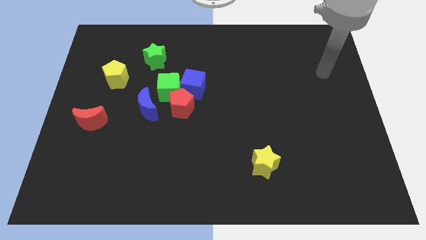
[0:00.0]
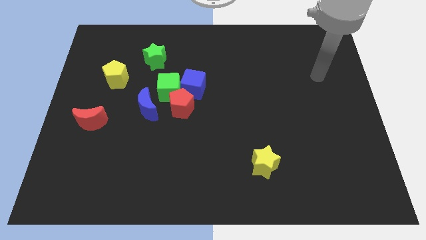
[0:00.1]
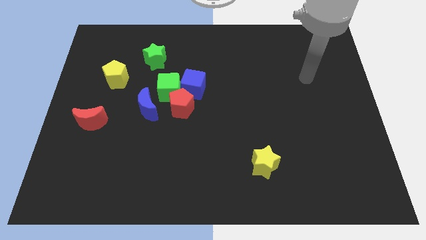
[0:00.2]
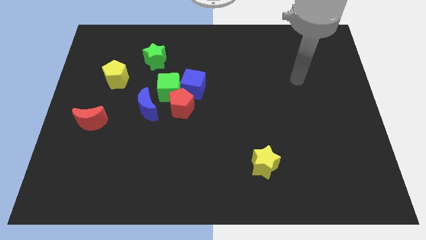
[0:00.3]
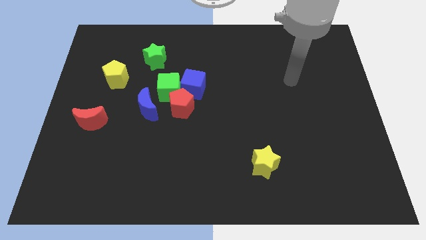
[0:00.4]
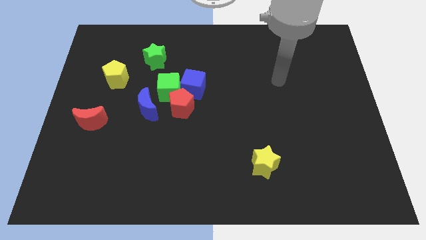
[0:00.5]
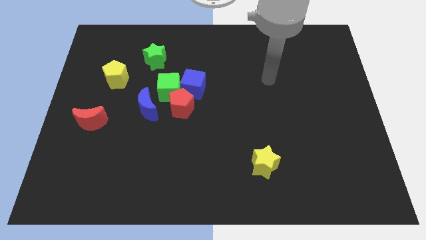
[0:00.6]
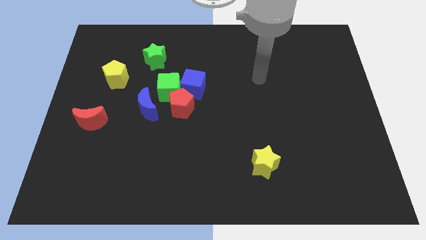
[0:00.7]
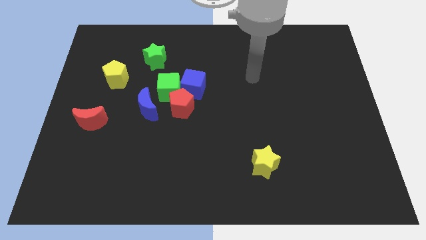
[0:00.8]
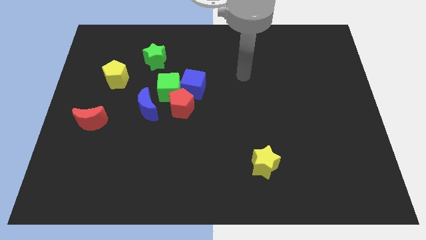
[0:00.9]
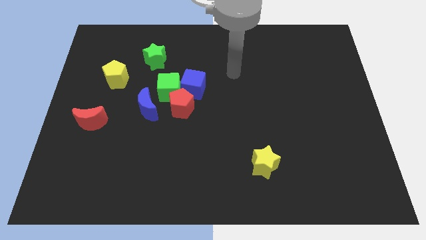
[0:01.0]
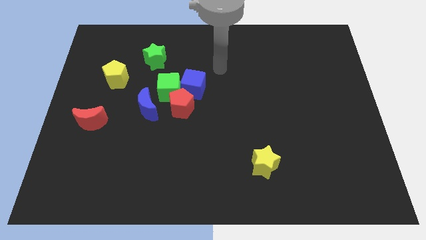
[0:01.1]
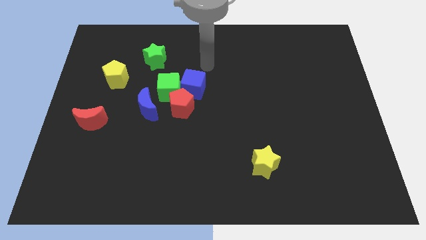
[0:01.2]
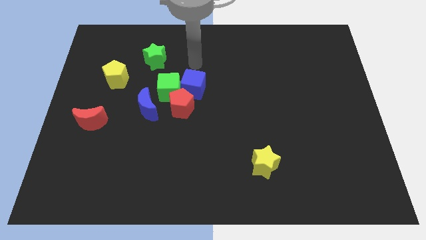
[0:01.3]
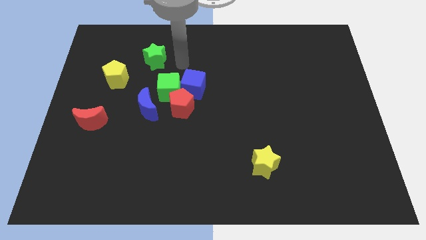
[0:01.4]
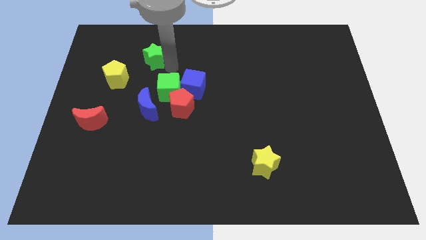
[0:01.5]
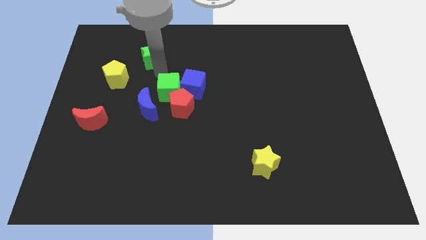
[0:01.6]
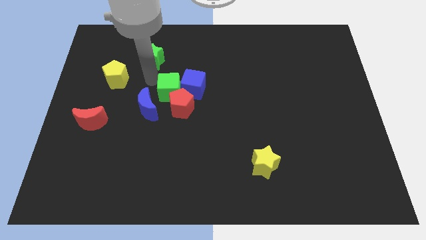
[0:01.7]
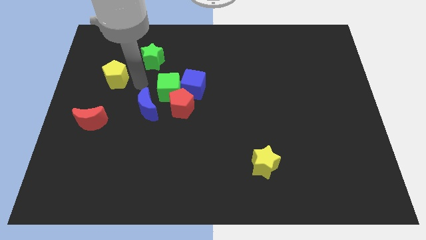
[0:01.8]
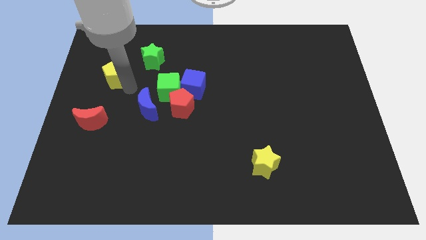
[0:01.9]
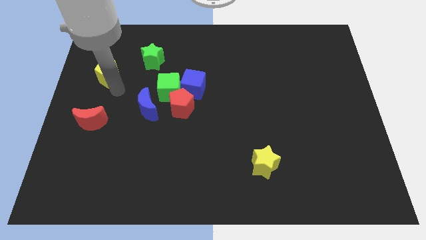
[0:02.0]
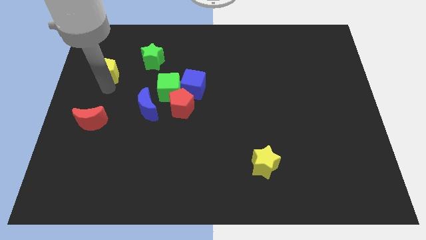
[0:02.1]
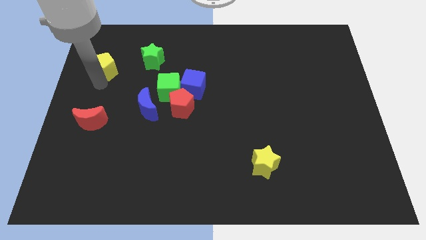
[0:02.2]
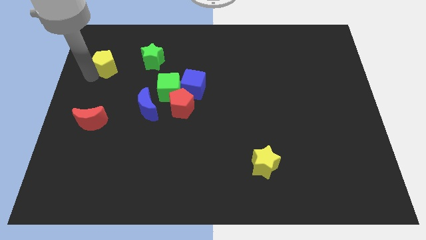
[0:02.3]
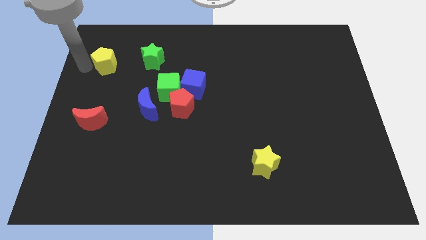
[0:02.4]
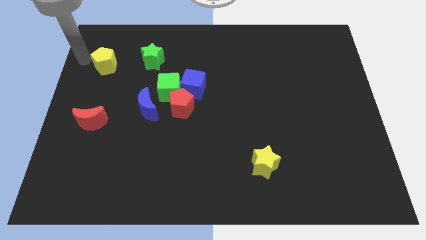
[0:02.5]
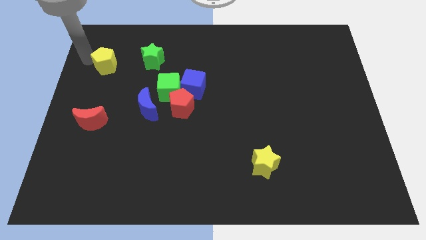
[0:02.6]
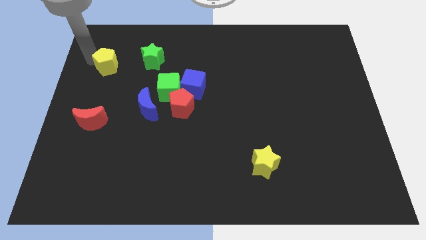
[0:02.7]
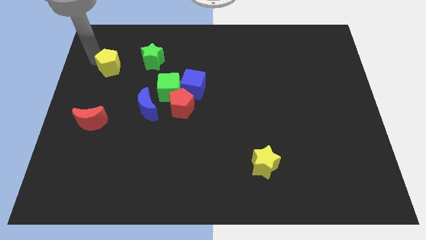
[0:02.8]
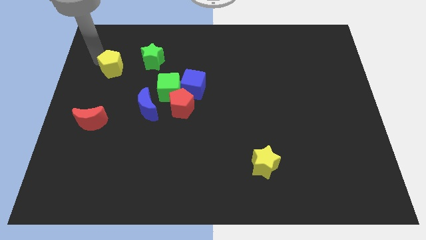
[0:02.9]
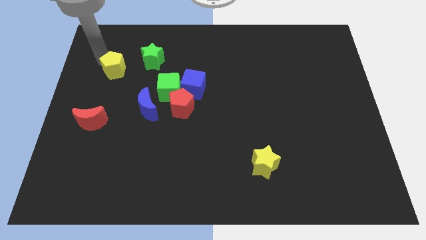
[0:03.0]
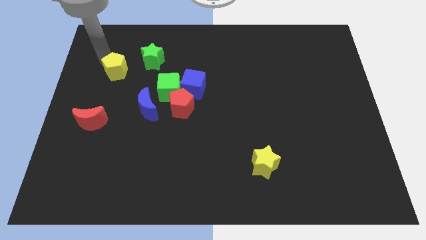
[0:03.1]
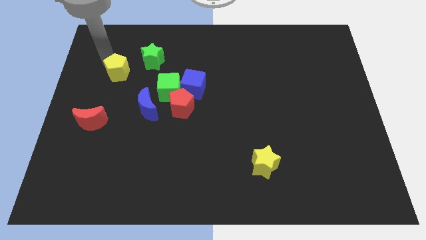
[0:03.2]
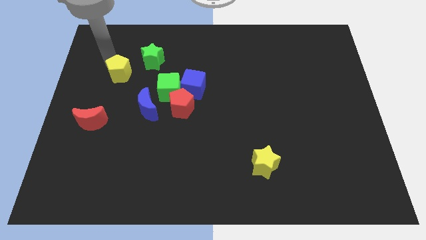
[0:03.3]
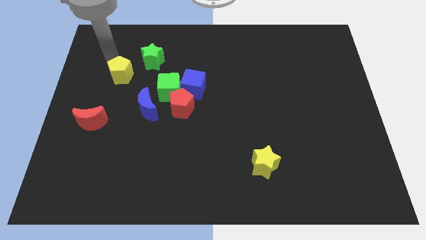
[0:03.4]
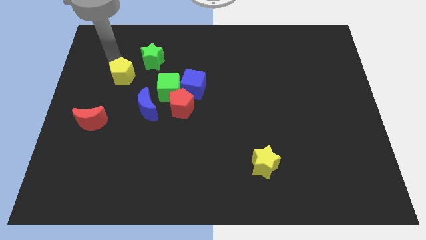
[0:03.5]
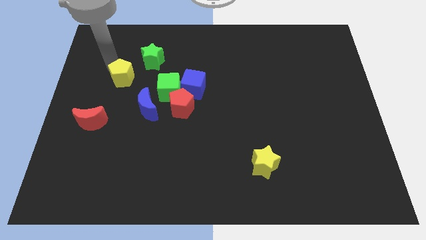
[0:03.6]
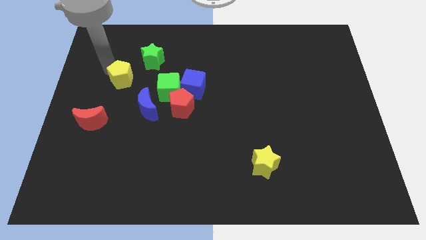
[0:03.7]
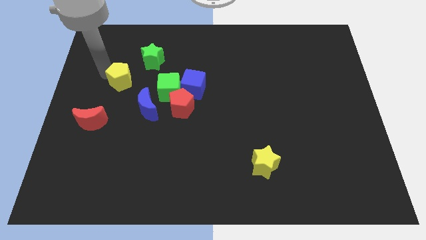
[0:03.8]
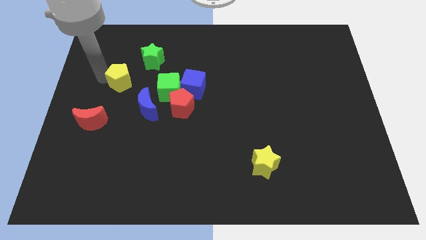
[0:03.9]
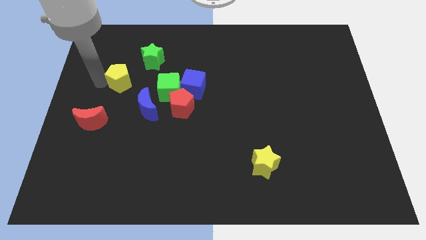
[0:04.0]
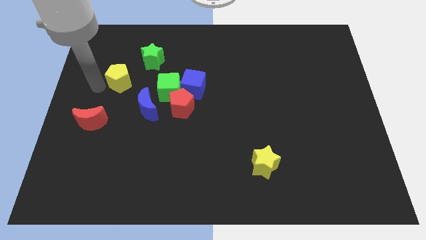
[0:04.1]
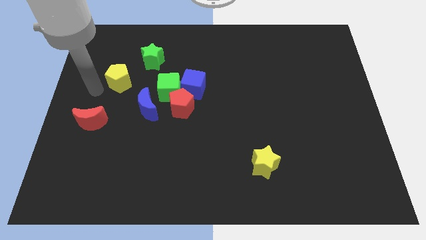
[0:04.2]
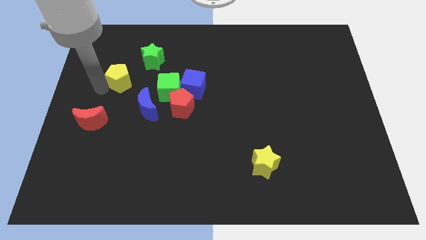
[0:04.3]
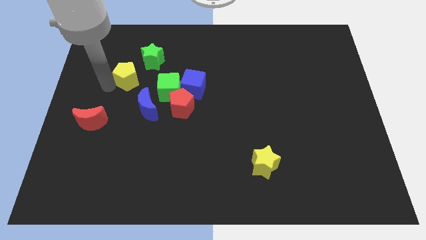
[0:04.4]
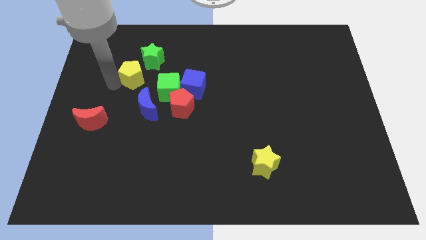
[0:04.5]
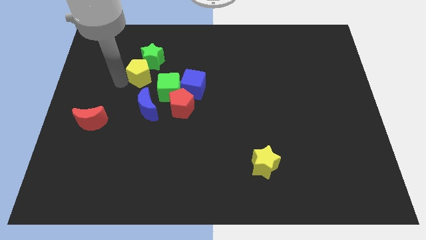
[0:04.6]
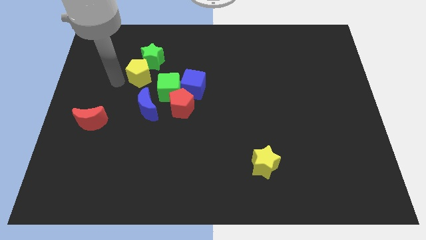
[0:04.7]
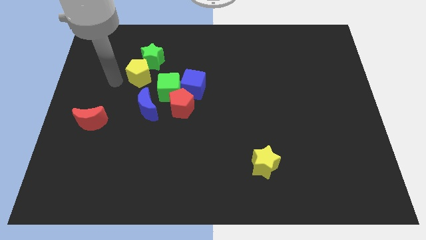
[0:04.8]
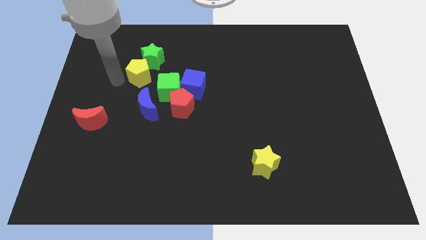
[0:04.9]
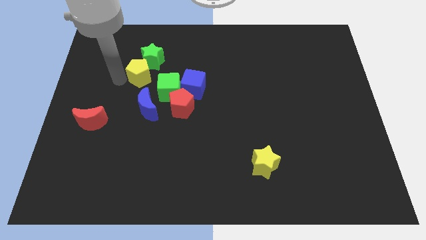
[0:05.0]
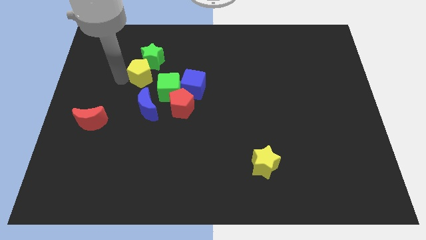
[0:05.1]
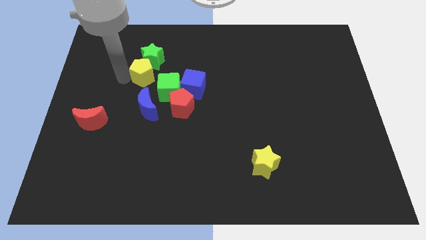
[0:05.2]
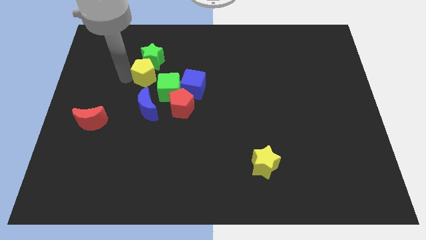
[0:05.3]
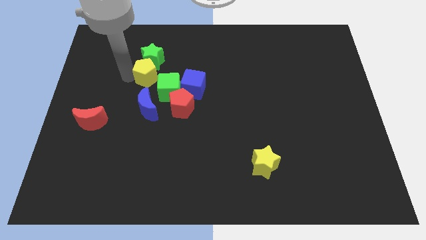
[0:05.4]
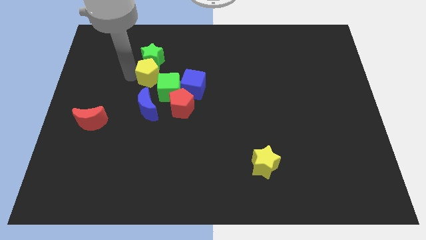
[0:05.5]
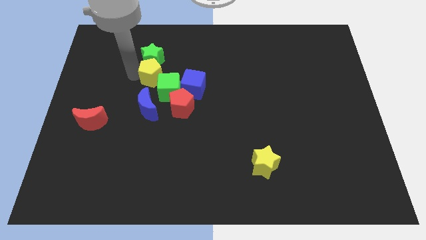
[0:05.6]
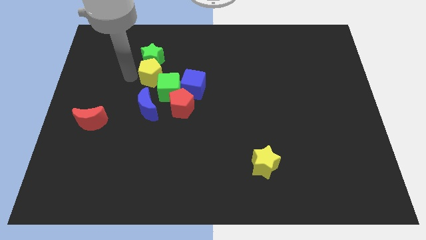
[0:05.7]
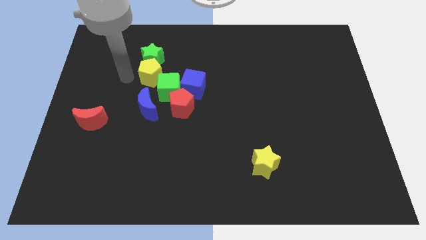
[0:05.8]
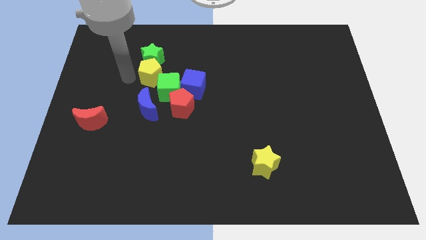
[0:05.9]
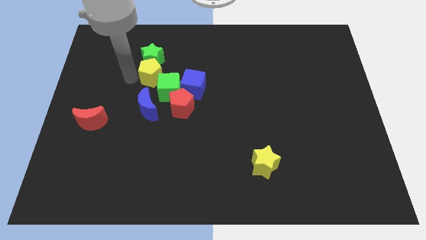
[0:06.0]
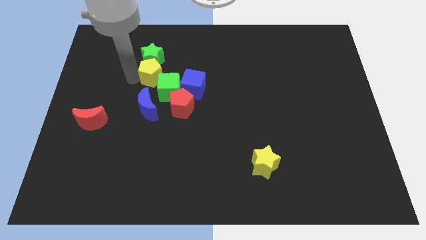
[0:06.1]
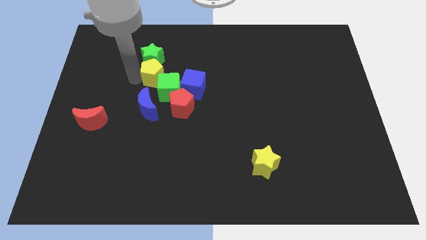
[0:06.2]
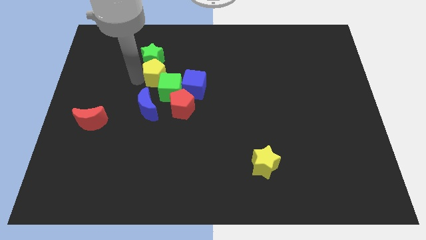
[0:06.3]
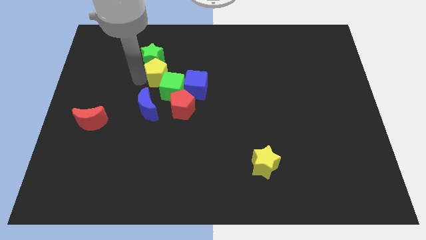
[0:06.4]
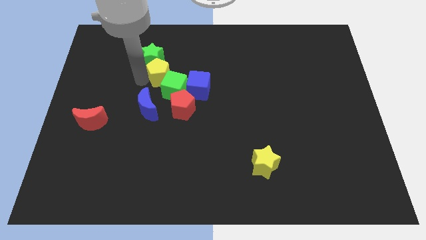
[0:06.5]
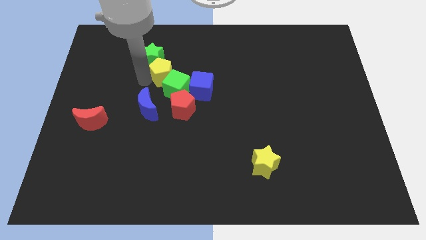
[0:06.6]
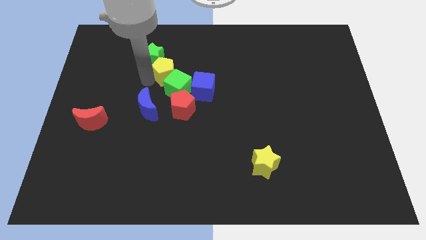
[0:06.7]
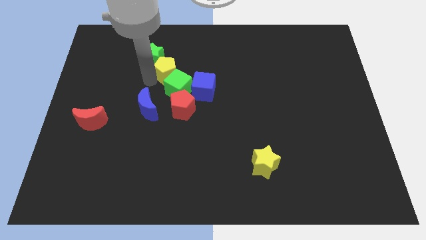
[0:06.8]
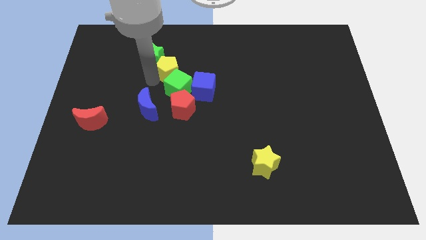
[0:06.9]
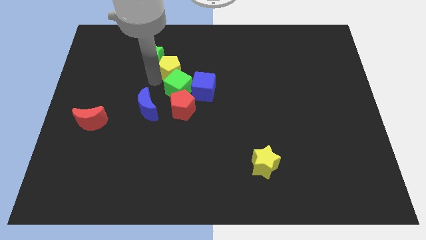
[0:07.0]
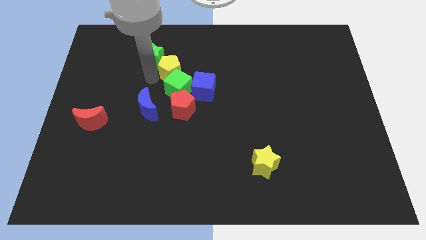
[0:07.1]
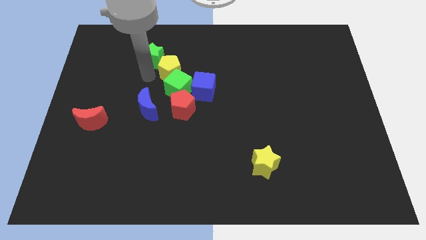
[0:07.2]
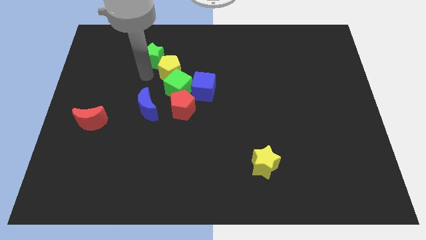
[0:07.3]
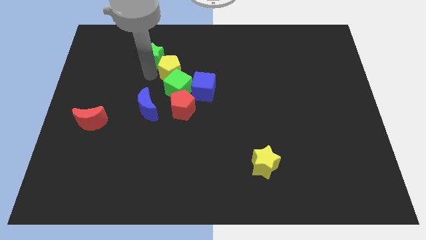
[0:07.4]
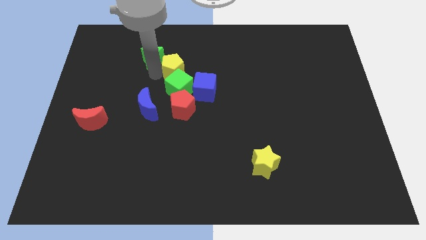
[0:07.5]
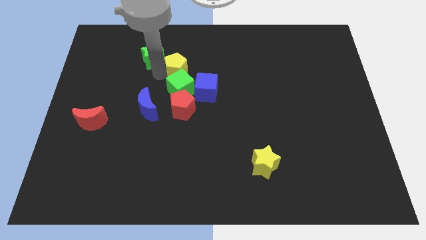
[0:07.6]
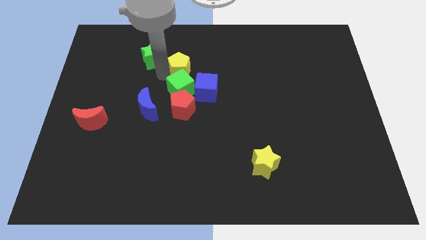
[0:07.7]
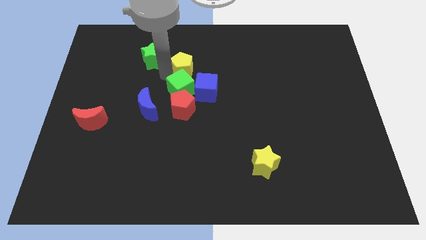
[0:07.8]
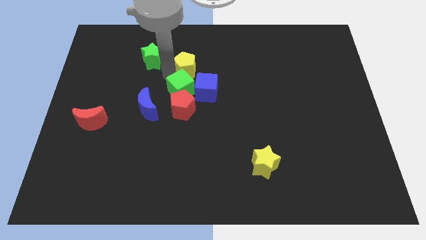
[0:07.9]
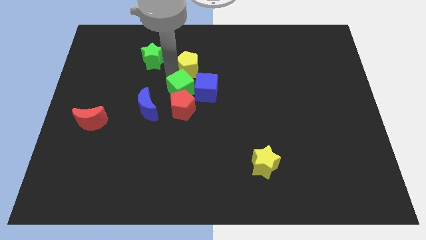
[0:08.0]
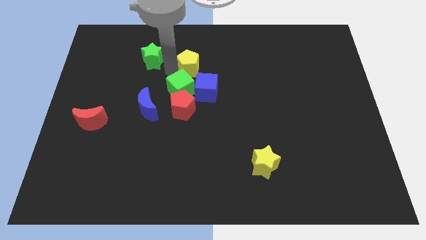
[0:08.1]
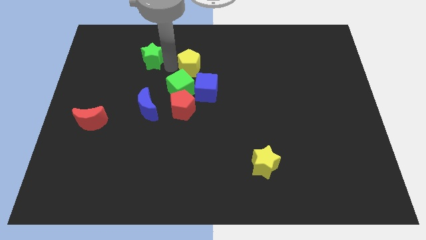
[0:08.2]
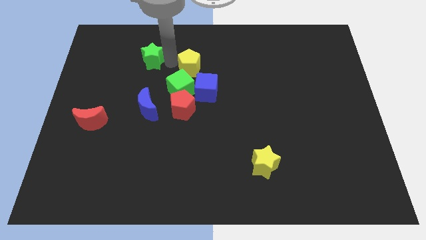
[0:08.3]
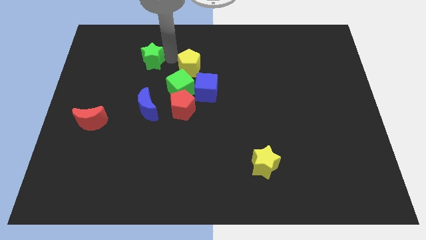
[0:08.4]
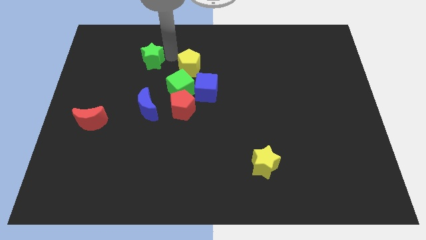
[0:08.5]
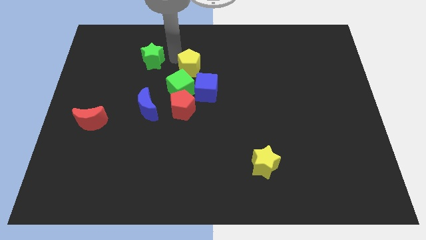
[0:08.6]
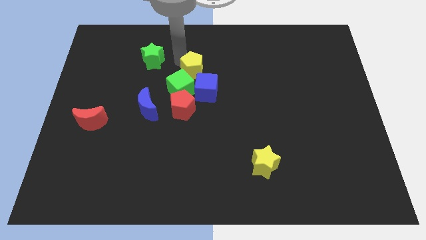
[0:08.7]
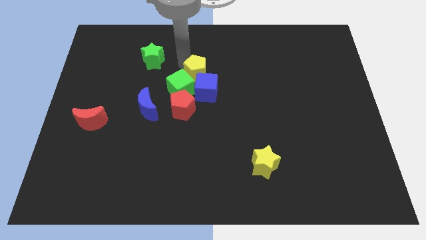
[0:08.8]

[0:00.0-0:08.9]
push the yellow pentagon right
